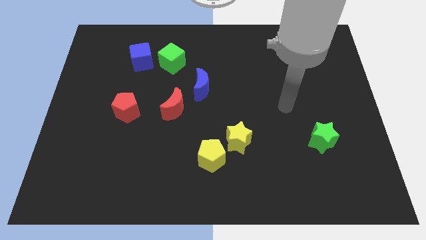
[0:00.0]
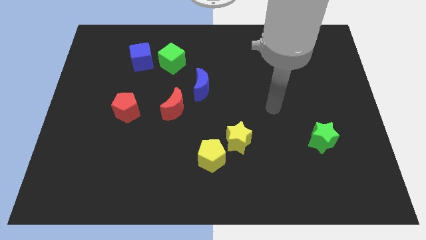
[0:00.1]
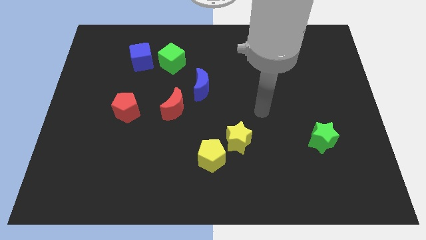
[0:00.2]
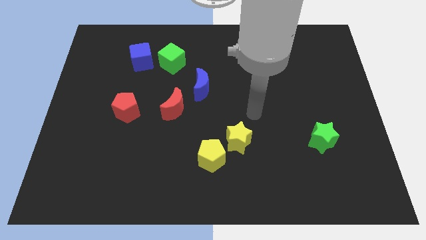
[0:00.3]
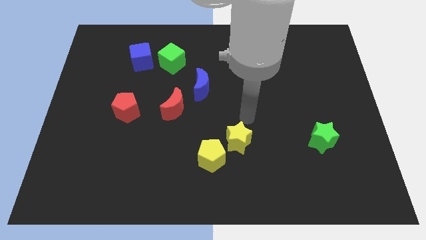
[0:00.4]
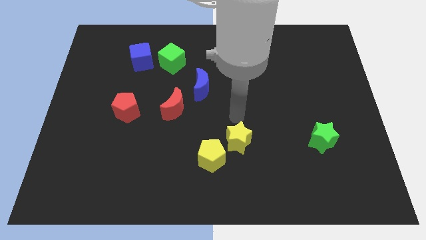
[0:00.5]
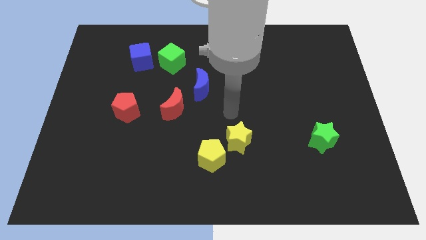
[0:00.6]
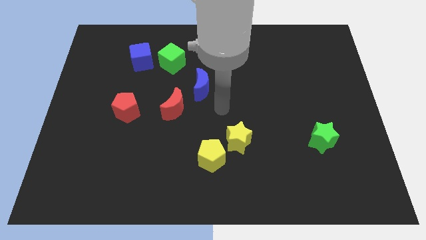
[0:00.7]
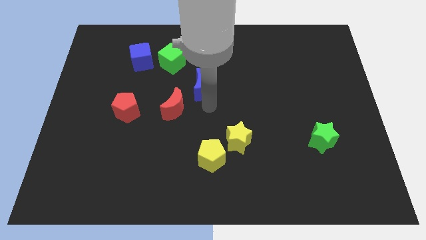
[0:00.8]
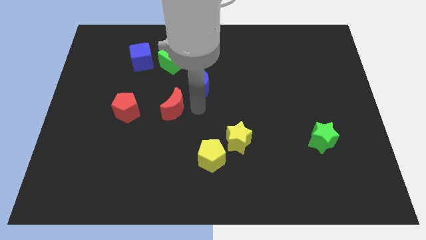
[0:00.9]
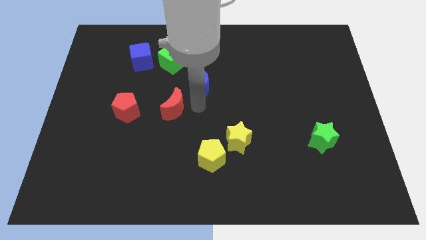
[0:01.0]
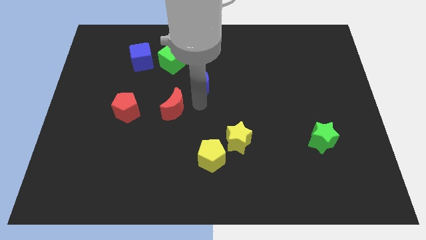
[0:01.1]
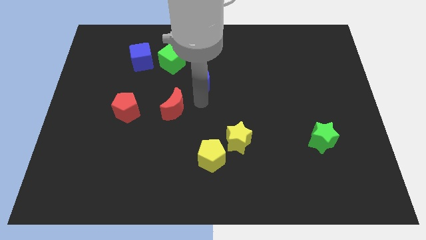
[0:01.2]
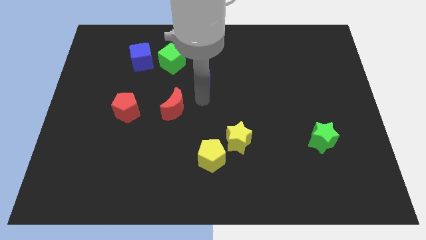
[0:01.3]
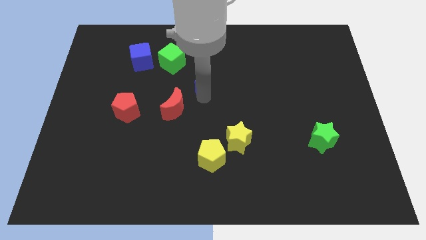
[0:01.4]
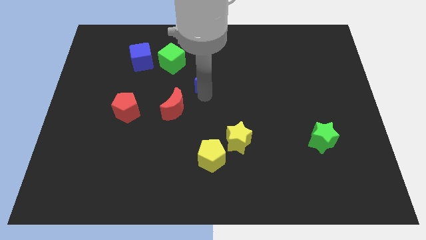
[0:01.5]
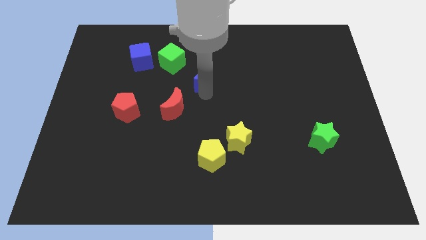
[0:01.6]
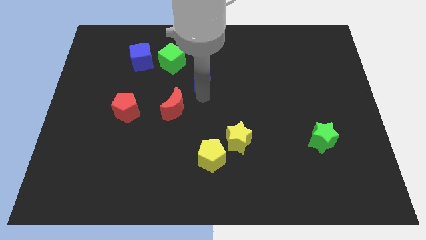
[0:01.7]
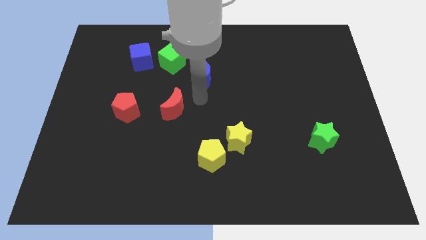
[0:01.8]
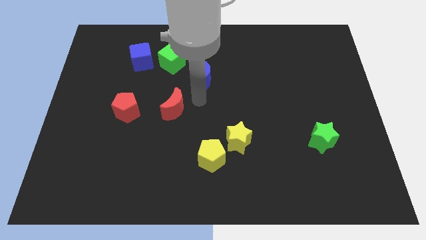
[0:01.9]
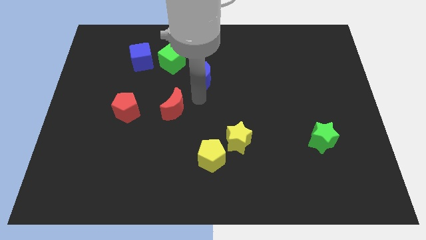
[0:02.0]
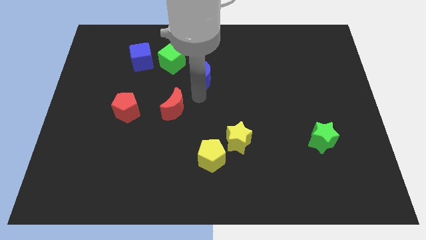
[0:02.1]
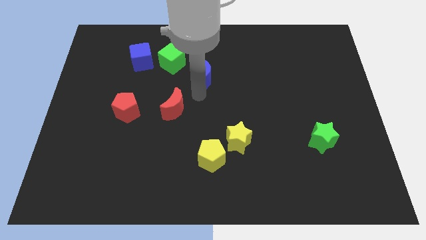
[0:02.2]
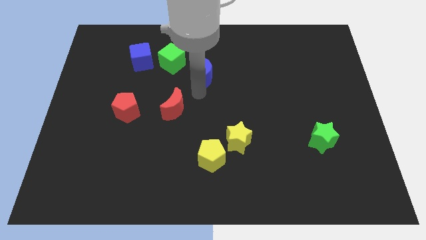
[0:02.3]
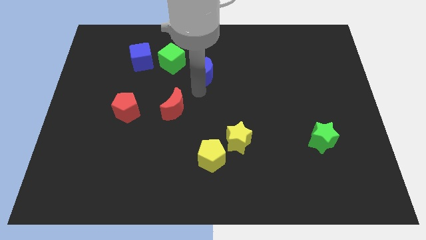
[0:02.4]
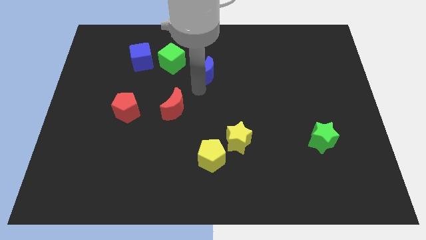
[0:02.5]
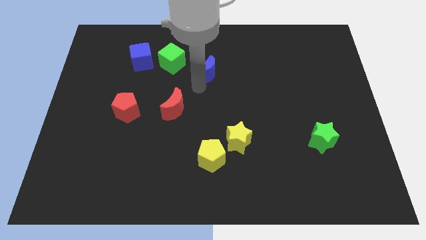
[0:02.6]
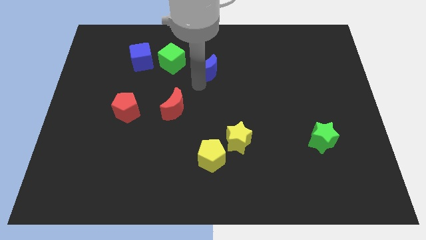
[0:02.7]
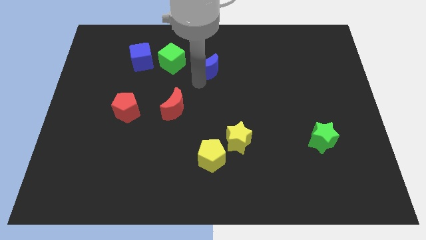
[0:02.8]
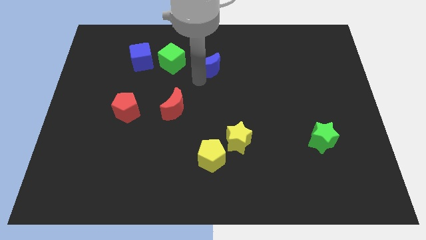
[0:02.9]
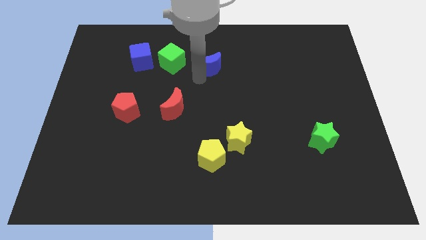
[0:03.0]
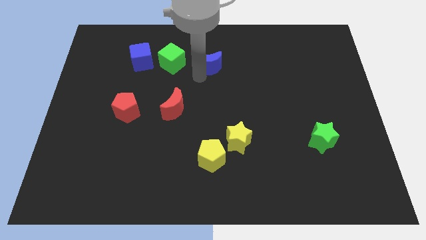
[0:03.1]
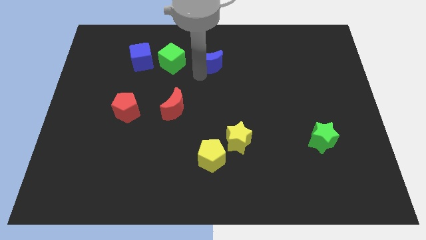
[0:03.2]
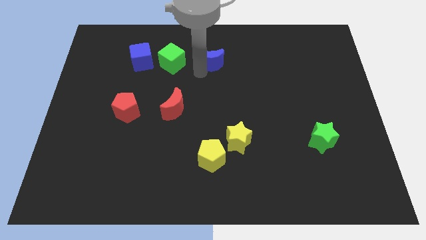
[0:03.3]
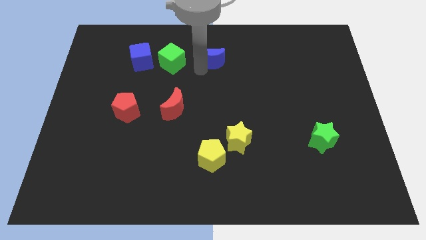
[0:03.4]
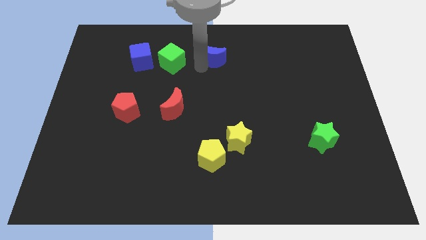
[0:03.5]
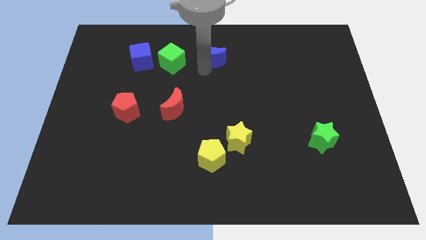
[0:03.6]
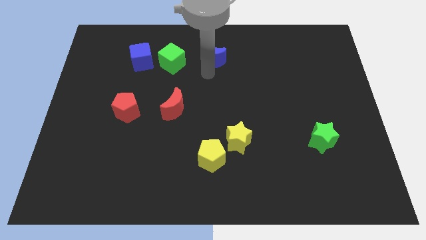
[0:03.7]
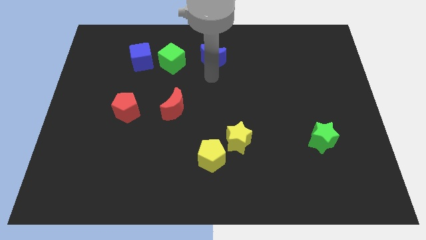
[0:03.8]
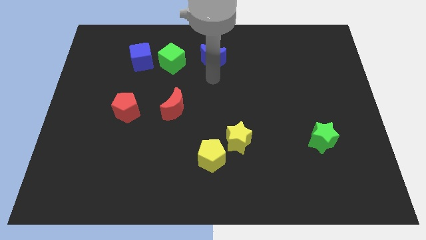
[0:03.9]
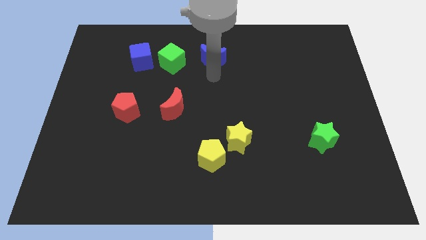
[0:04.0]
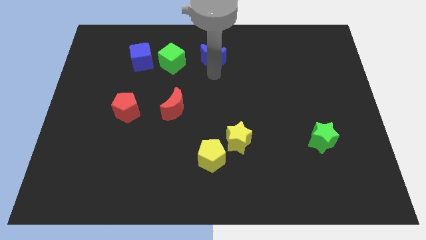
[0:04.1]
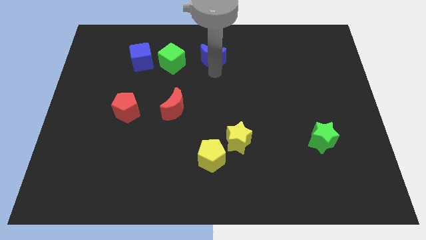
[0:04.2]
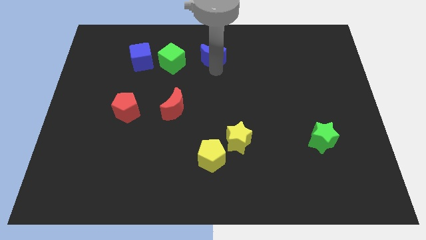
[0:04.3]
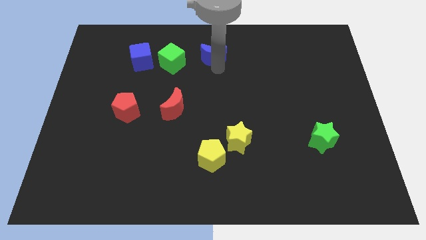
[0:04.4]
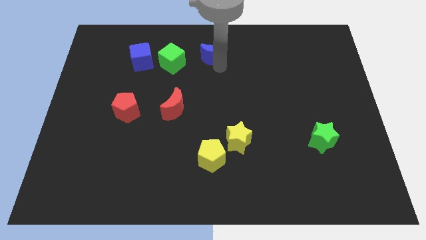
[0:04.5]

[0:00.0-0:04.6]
slide the blue moon to the top

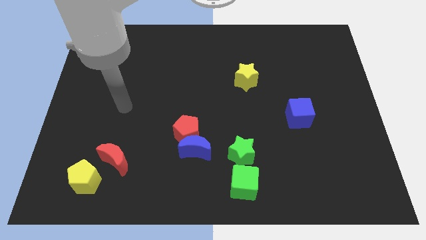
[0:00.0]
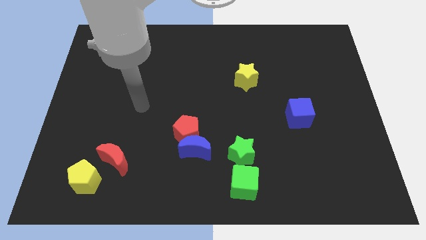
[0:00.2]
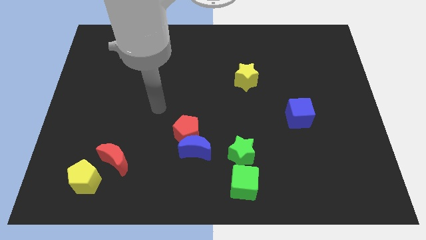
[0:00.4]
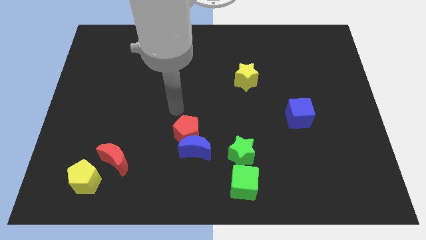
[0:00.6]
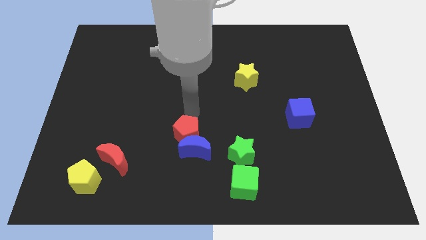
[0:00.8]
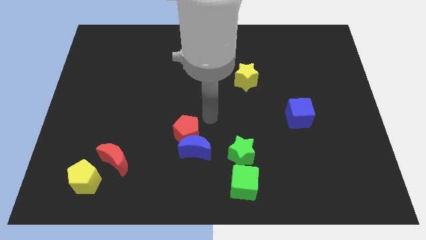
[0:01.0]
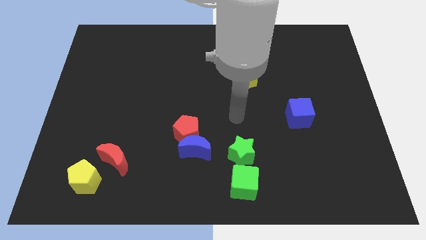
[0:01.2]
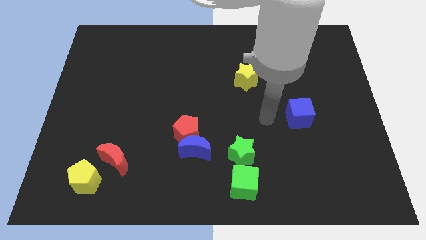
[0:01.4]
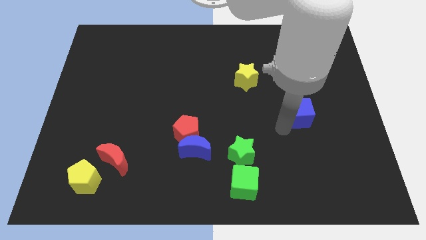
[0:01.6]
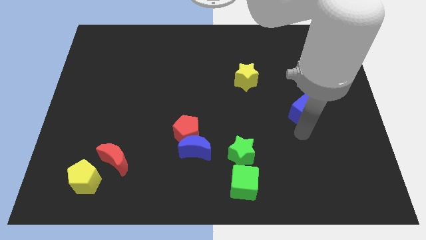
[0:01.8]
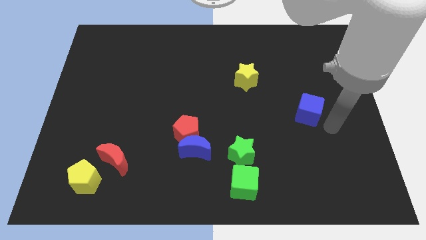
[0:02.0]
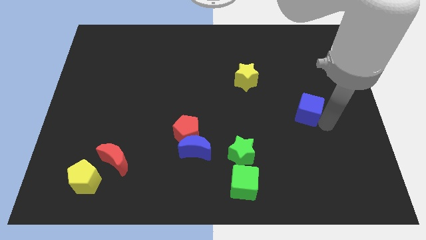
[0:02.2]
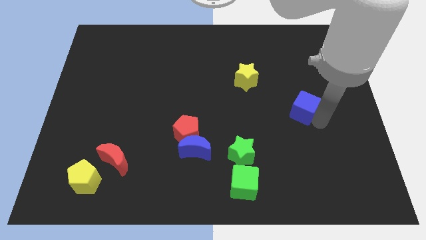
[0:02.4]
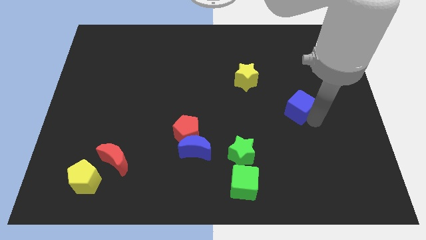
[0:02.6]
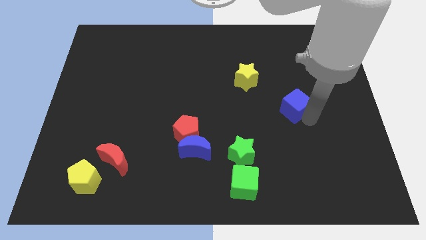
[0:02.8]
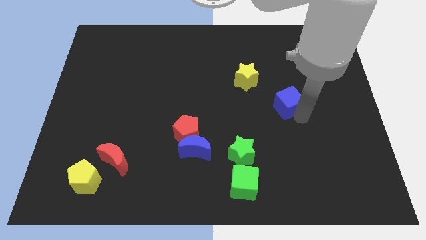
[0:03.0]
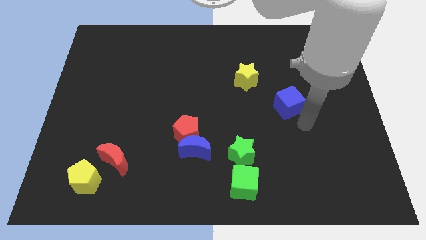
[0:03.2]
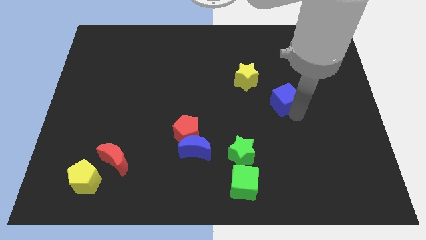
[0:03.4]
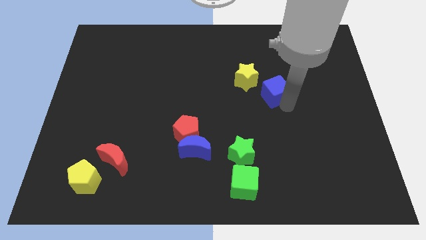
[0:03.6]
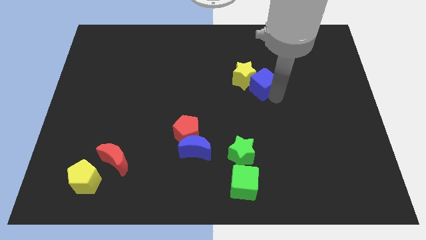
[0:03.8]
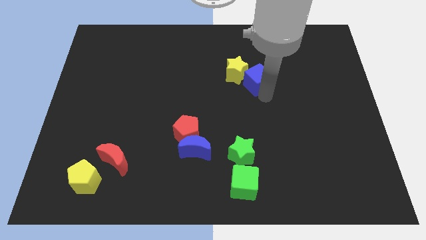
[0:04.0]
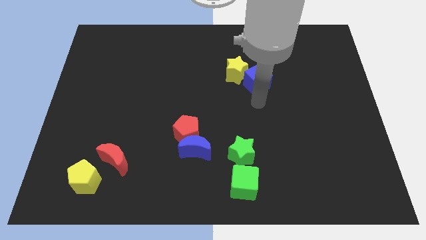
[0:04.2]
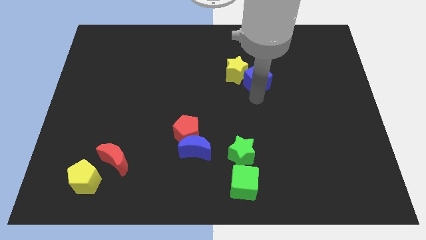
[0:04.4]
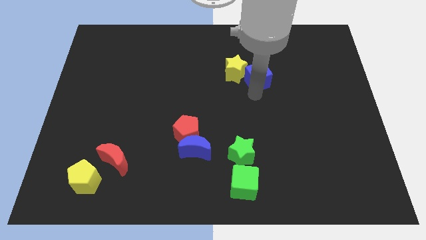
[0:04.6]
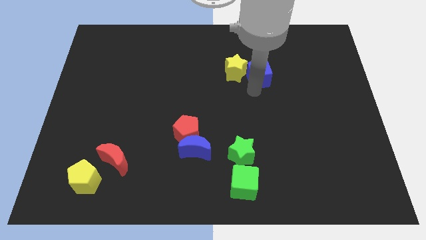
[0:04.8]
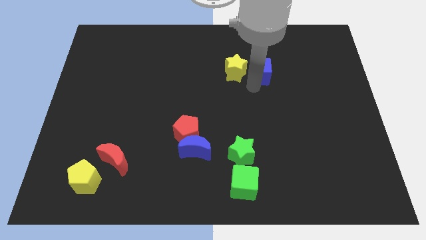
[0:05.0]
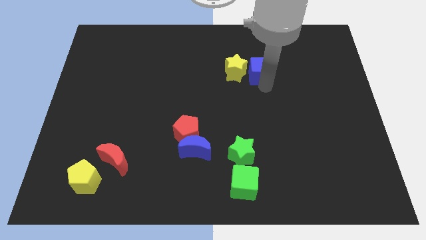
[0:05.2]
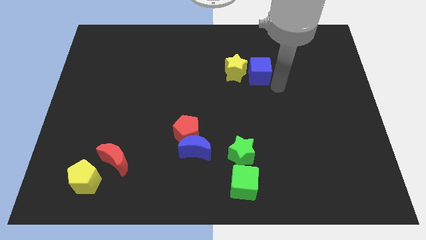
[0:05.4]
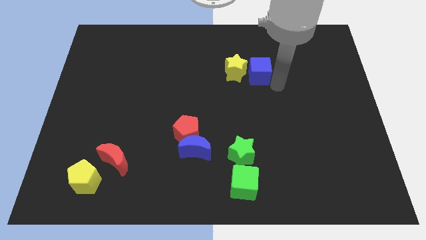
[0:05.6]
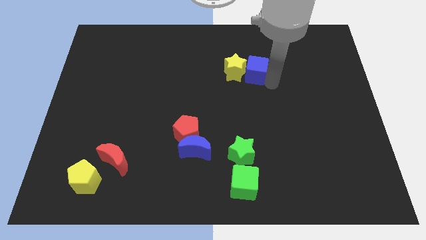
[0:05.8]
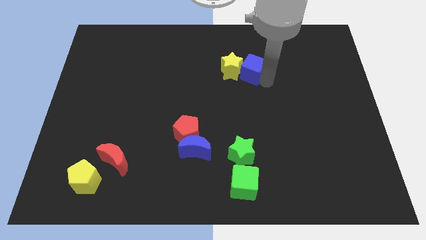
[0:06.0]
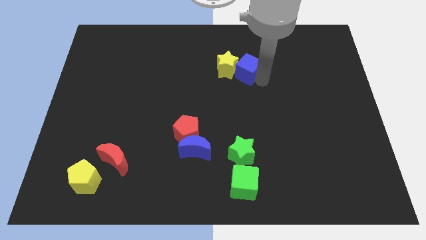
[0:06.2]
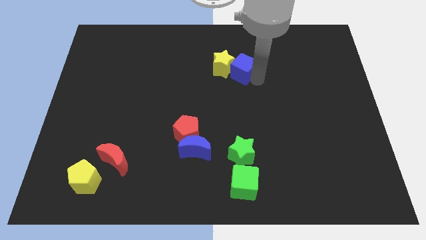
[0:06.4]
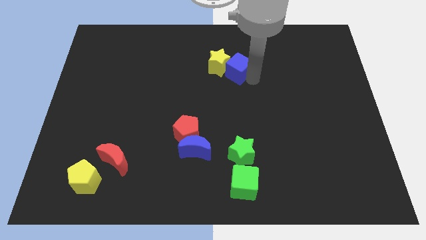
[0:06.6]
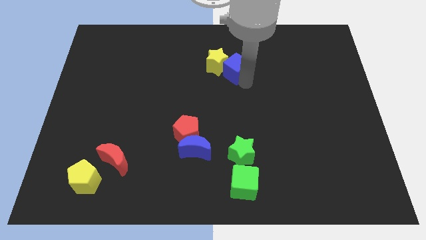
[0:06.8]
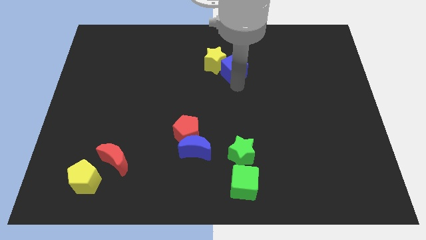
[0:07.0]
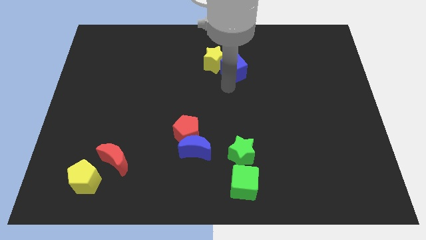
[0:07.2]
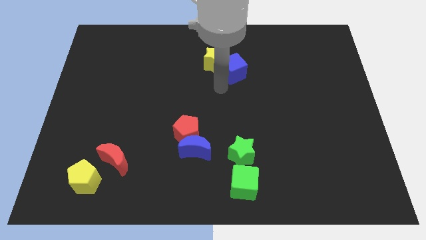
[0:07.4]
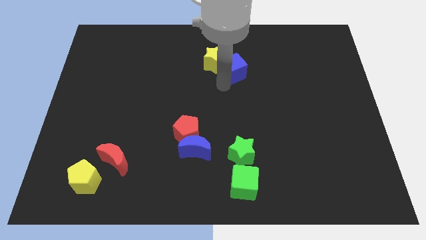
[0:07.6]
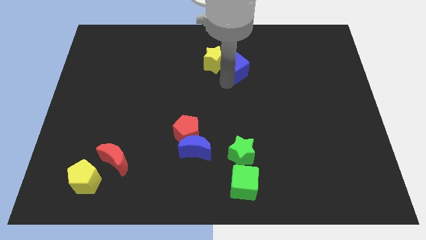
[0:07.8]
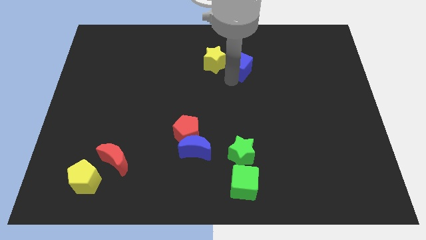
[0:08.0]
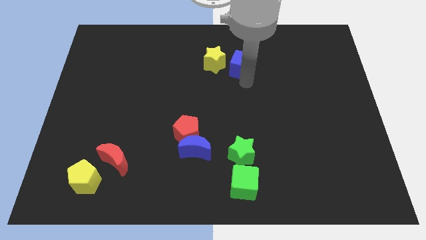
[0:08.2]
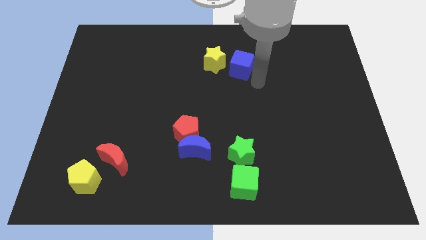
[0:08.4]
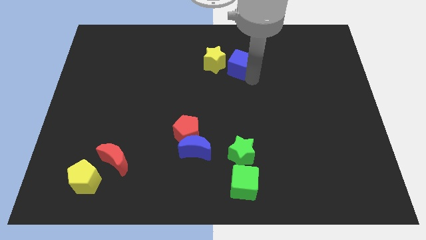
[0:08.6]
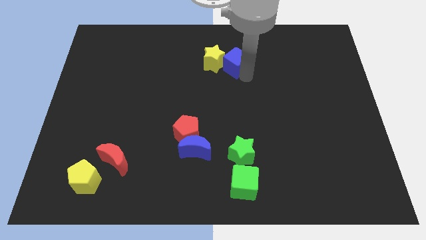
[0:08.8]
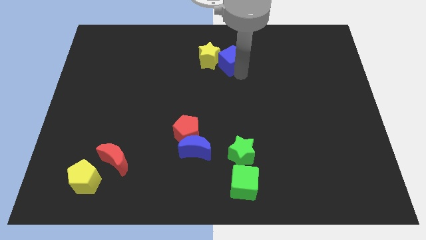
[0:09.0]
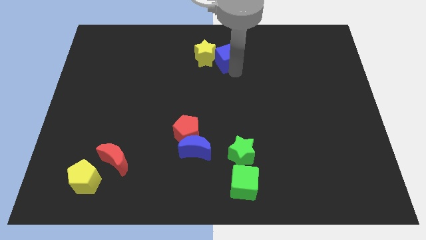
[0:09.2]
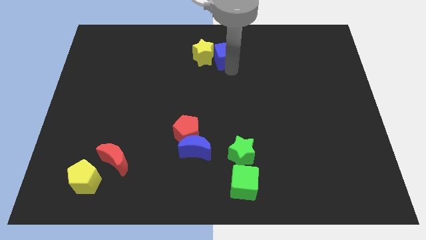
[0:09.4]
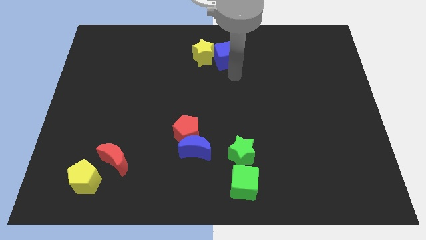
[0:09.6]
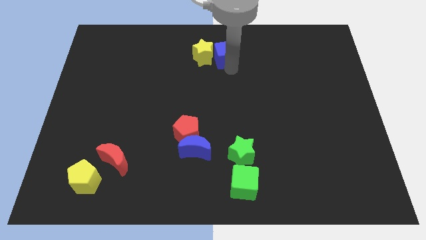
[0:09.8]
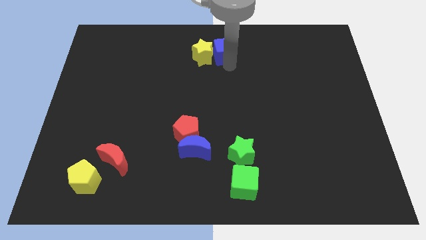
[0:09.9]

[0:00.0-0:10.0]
slide the blue cube to the towards your base
